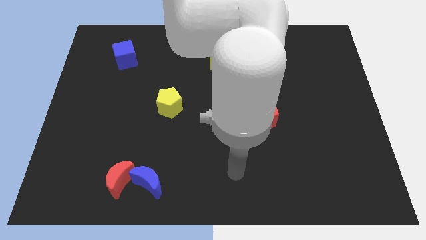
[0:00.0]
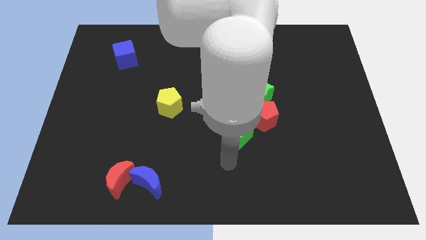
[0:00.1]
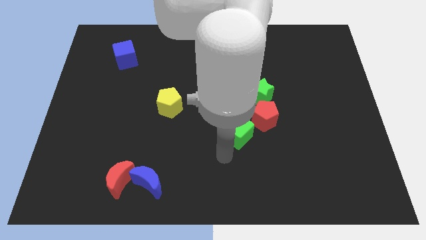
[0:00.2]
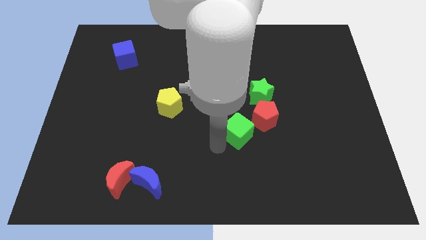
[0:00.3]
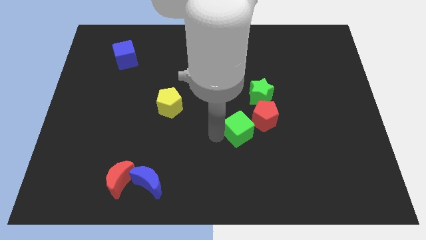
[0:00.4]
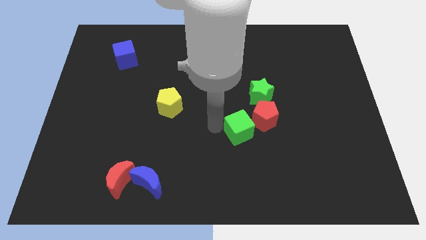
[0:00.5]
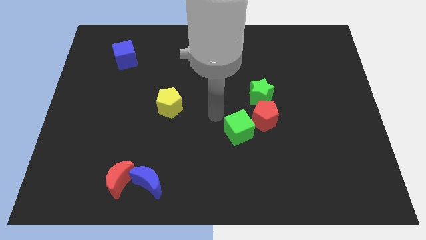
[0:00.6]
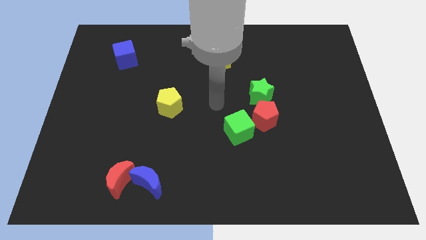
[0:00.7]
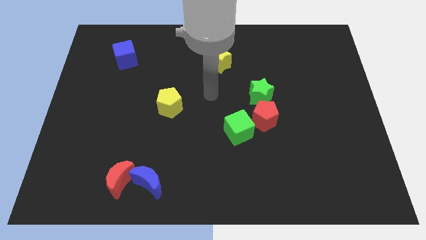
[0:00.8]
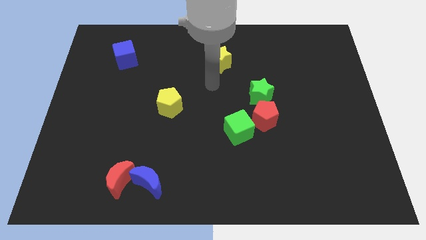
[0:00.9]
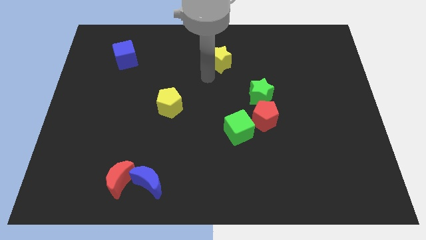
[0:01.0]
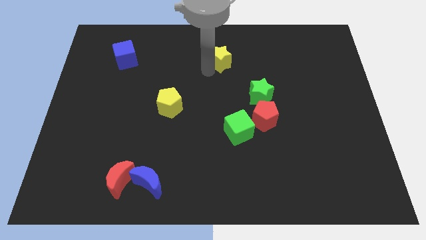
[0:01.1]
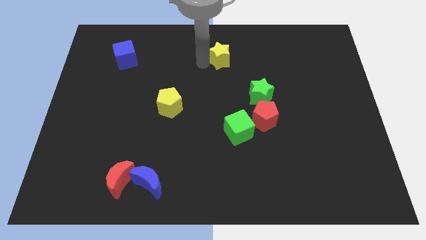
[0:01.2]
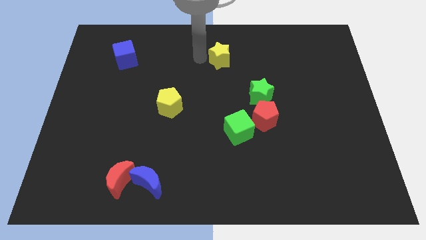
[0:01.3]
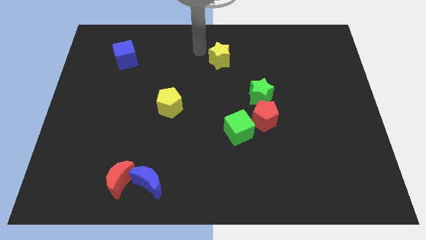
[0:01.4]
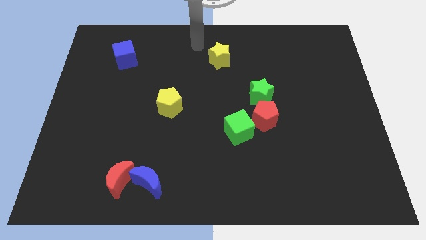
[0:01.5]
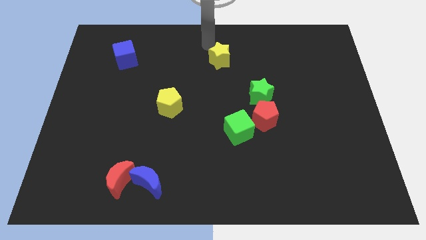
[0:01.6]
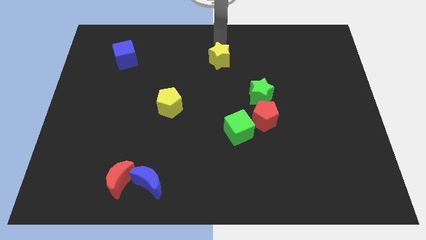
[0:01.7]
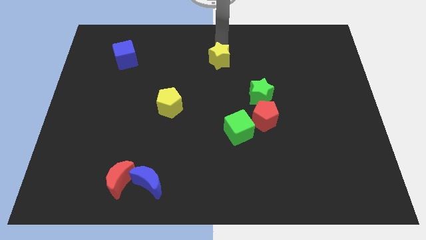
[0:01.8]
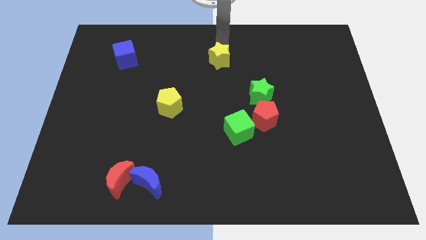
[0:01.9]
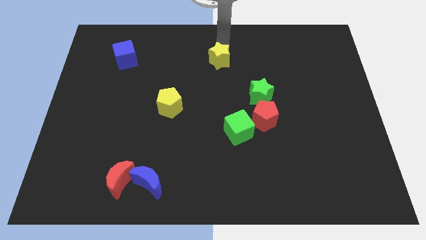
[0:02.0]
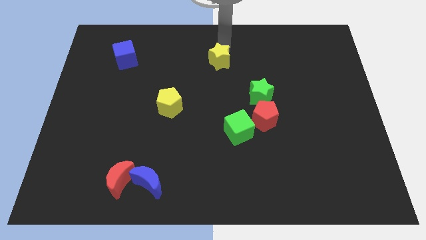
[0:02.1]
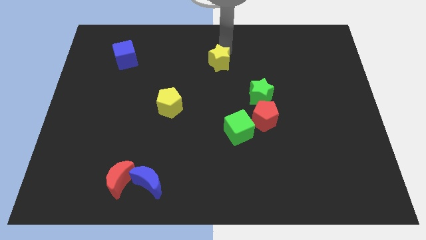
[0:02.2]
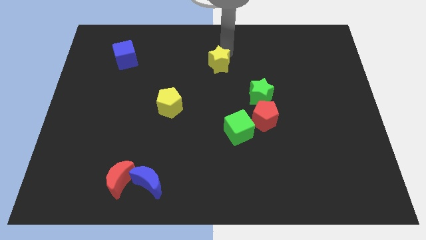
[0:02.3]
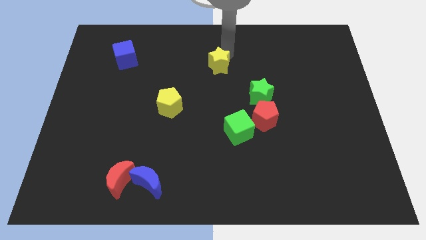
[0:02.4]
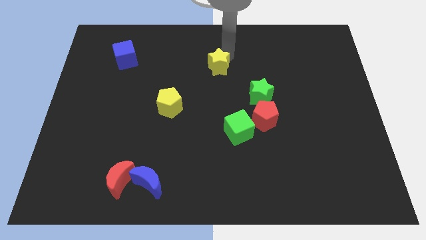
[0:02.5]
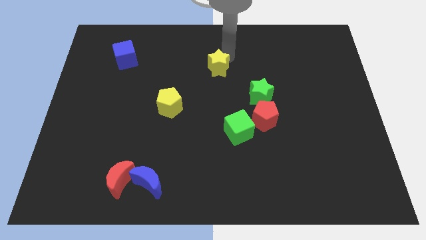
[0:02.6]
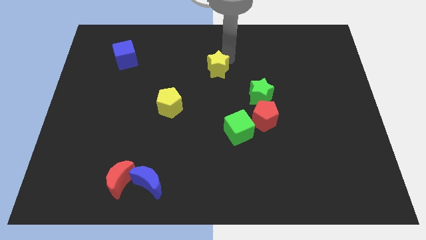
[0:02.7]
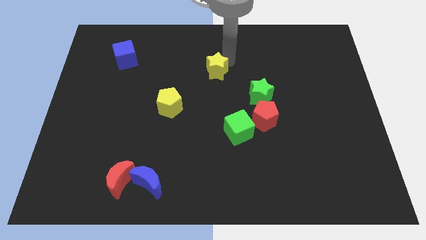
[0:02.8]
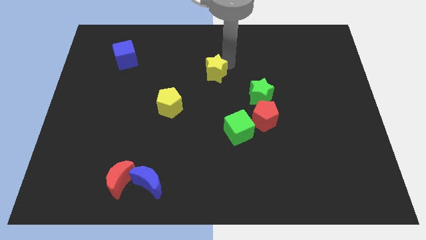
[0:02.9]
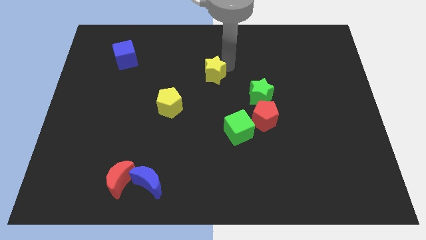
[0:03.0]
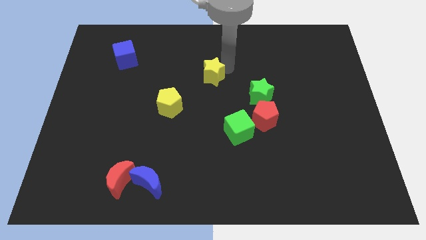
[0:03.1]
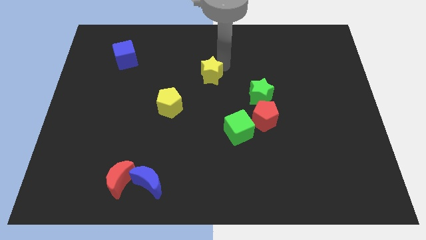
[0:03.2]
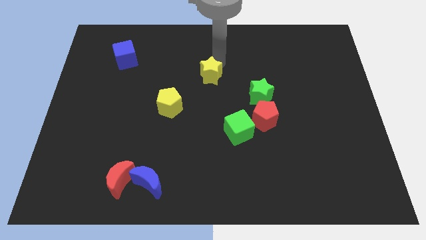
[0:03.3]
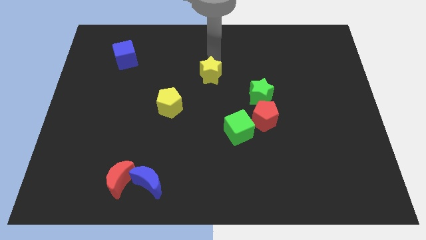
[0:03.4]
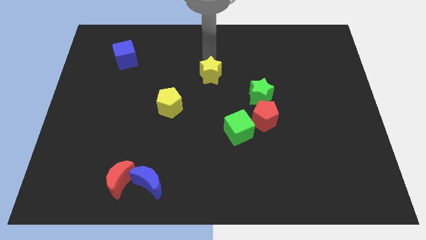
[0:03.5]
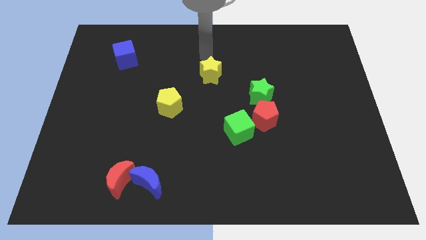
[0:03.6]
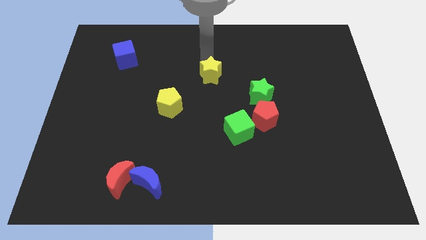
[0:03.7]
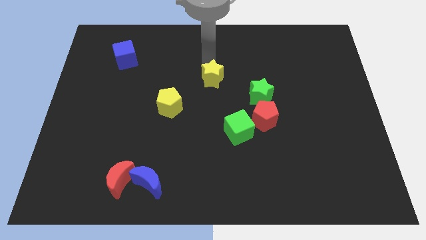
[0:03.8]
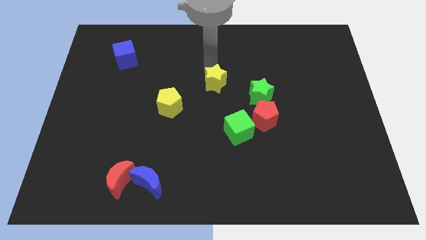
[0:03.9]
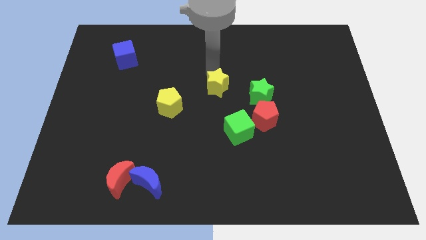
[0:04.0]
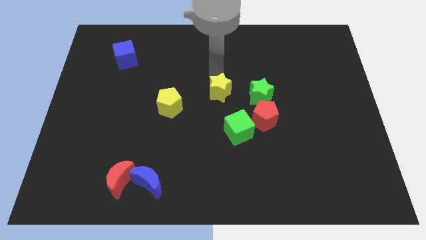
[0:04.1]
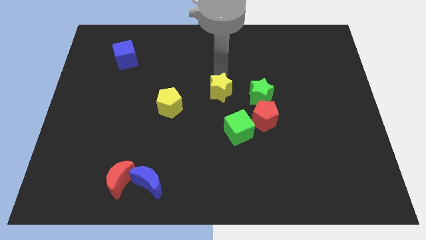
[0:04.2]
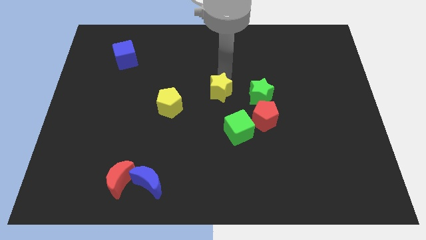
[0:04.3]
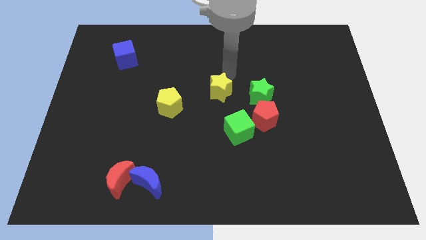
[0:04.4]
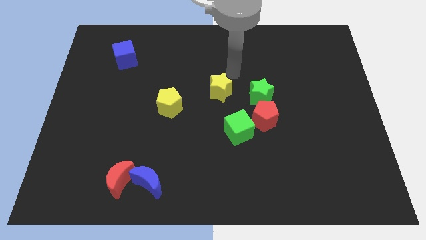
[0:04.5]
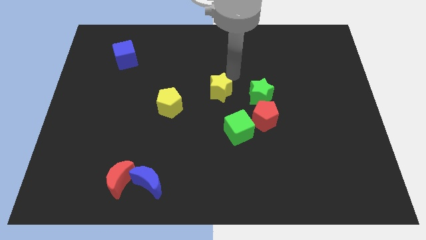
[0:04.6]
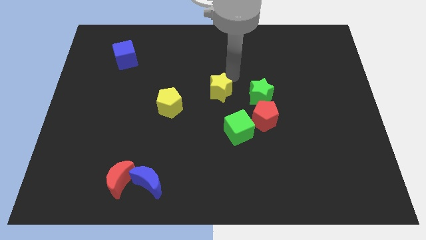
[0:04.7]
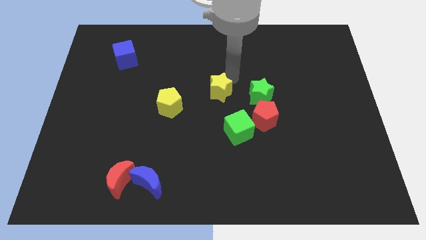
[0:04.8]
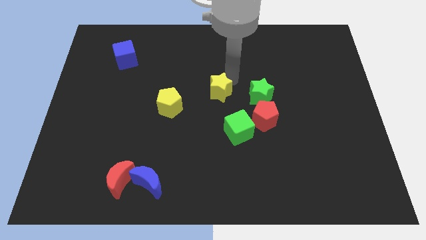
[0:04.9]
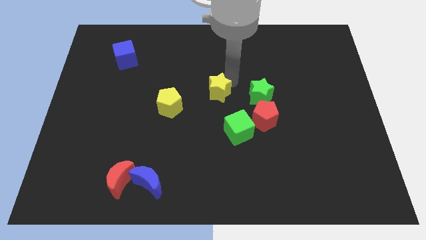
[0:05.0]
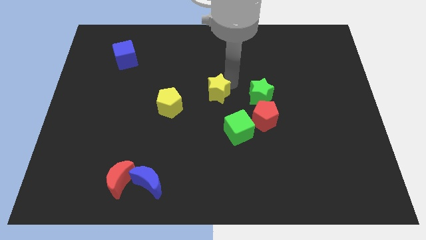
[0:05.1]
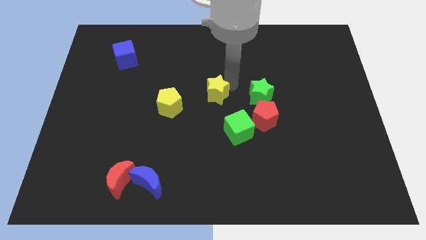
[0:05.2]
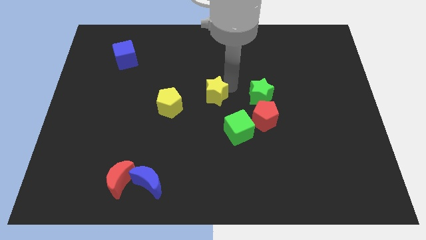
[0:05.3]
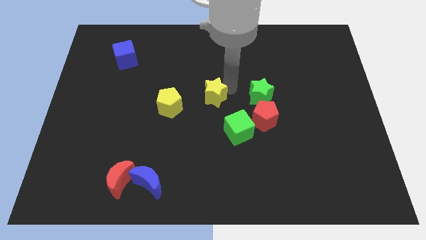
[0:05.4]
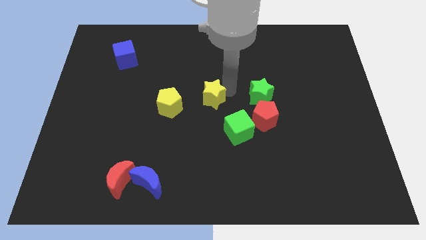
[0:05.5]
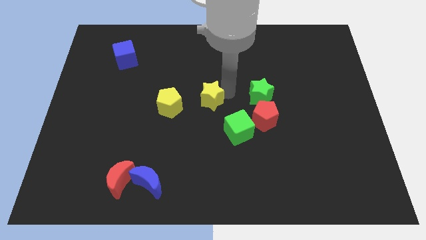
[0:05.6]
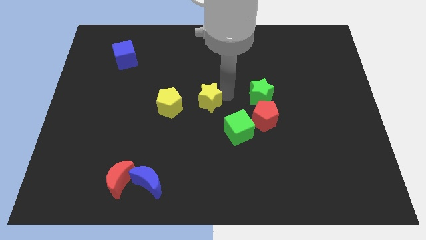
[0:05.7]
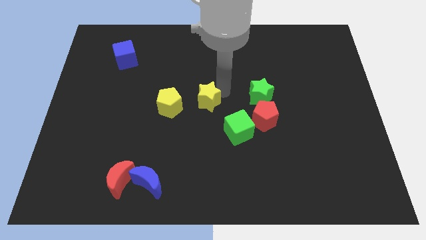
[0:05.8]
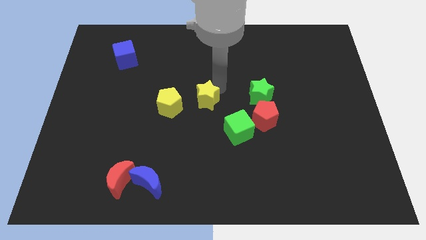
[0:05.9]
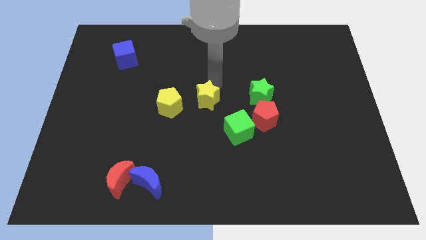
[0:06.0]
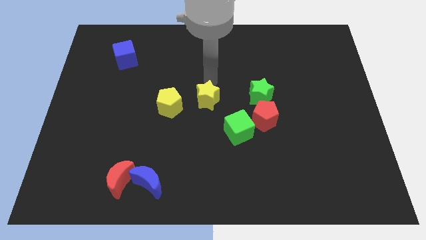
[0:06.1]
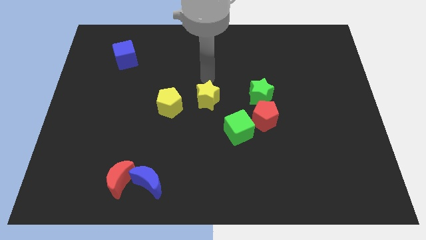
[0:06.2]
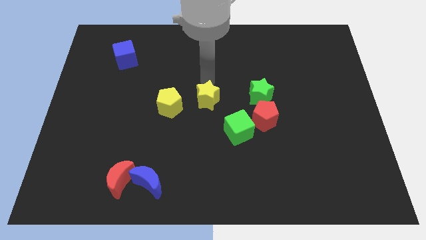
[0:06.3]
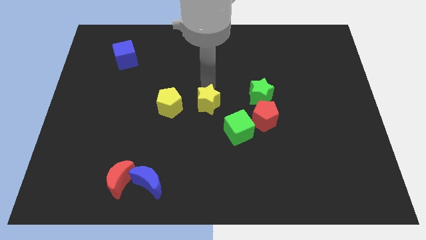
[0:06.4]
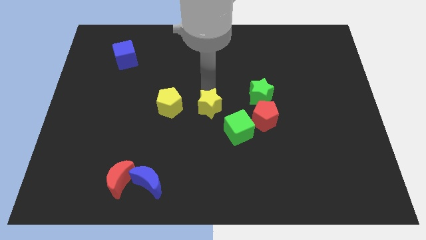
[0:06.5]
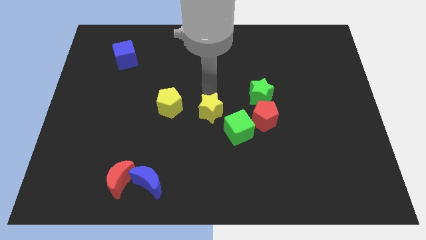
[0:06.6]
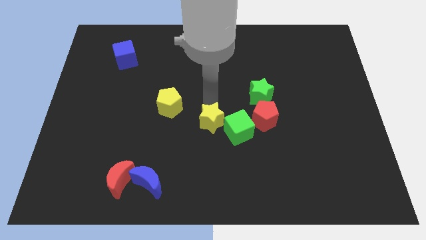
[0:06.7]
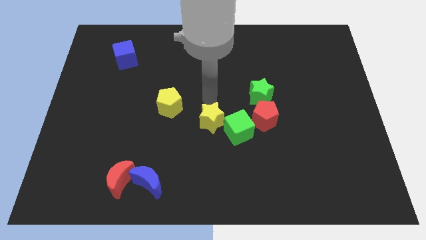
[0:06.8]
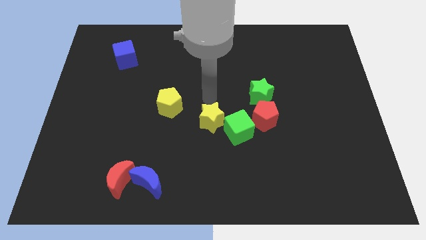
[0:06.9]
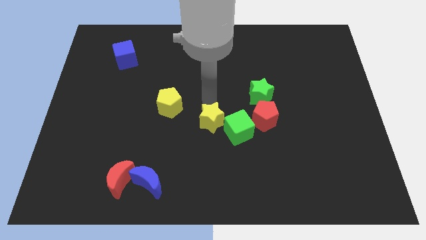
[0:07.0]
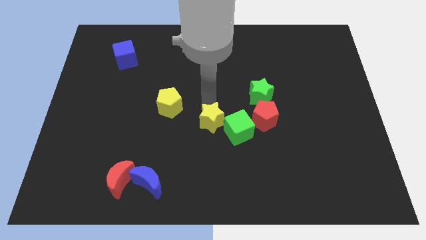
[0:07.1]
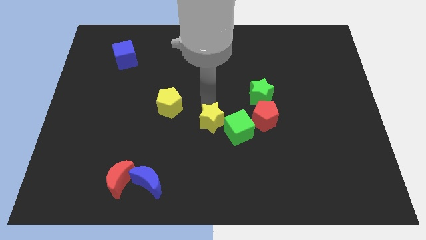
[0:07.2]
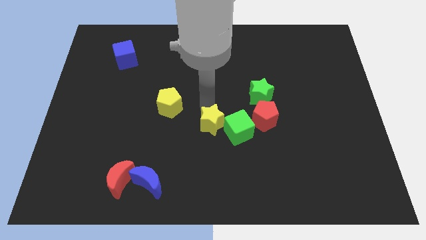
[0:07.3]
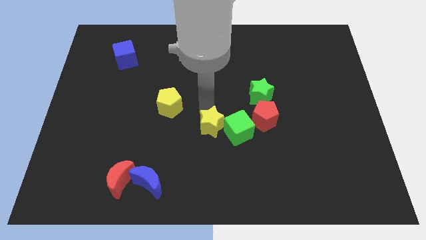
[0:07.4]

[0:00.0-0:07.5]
move the yellow star downwards

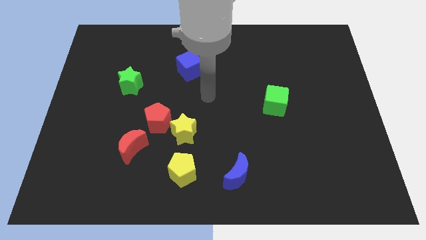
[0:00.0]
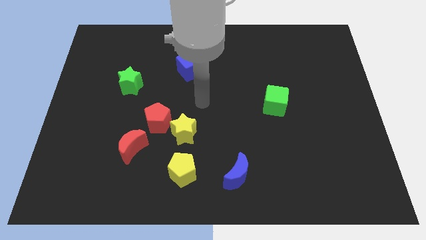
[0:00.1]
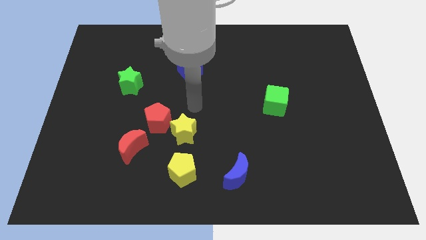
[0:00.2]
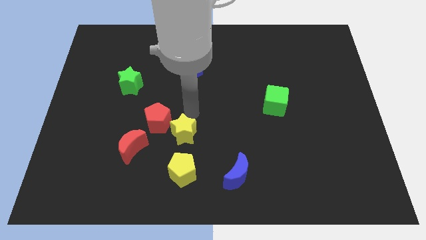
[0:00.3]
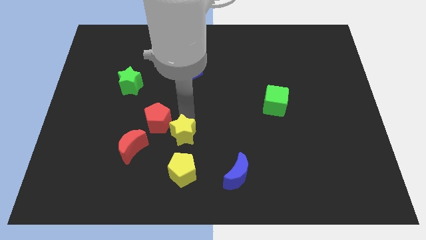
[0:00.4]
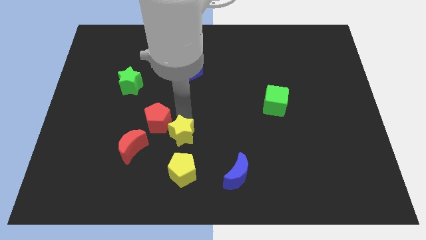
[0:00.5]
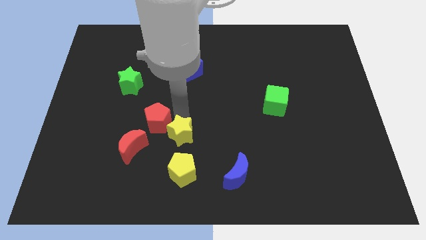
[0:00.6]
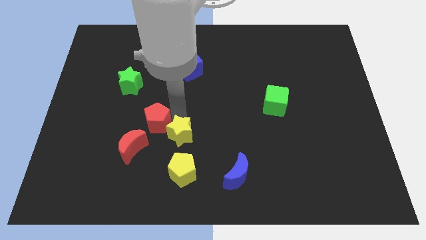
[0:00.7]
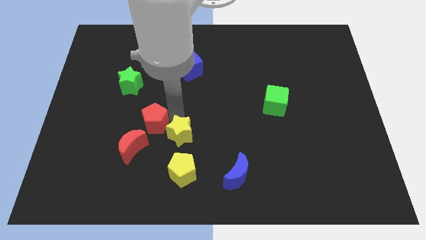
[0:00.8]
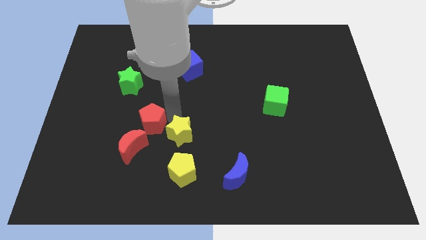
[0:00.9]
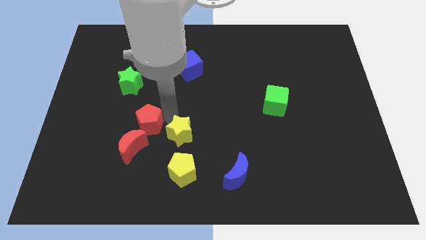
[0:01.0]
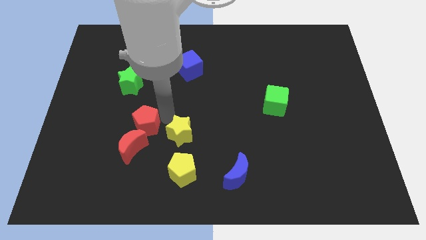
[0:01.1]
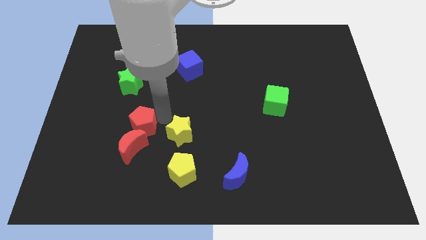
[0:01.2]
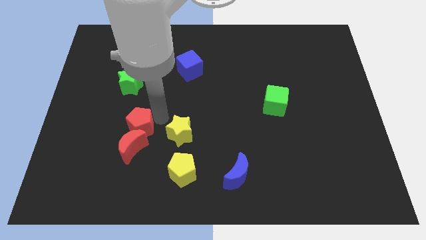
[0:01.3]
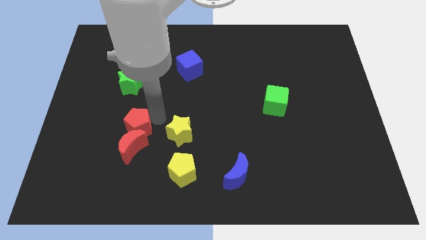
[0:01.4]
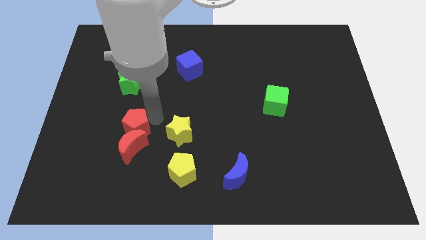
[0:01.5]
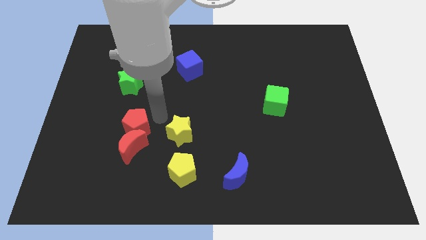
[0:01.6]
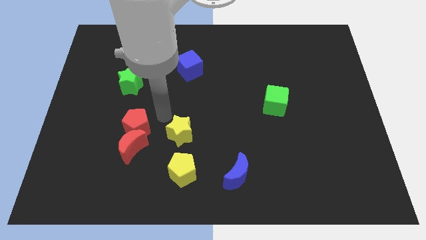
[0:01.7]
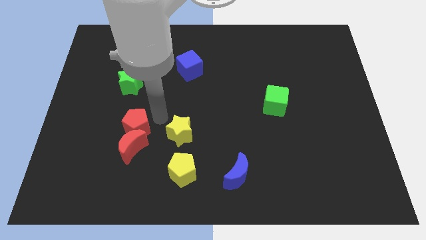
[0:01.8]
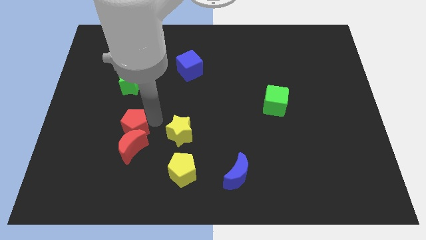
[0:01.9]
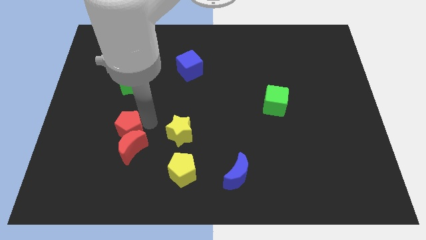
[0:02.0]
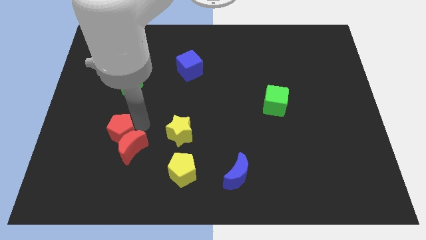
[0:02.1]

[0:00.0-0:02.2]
slightly slide the red pentagon downwards and then left
